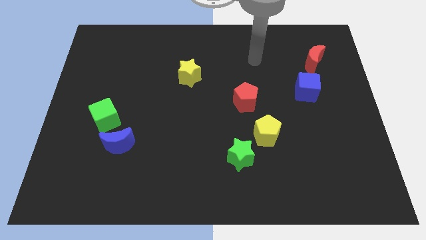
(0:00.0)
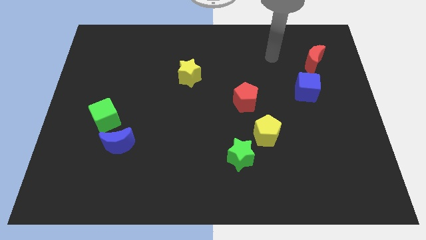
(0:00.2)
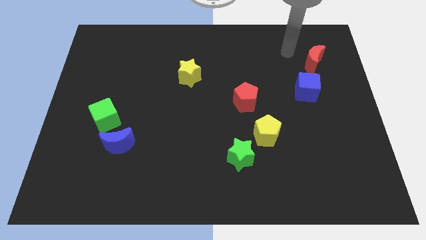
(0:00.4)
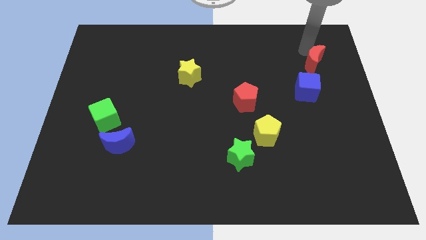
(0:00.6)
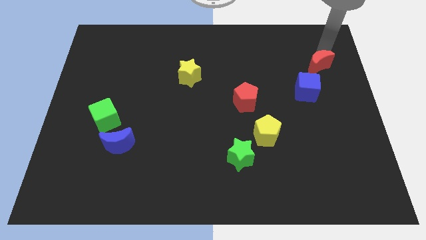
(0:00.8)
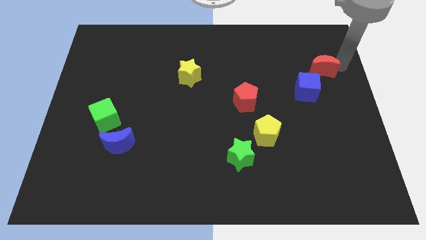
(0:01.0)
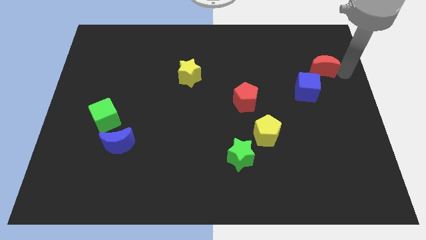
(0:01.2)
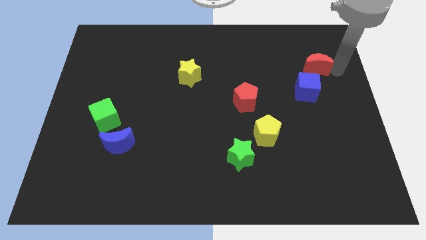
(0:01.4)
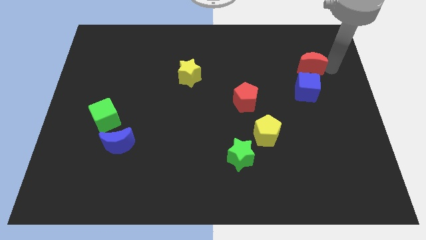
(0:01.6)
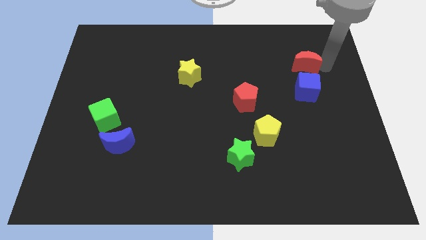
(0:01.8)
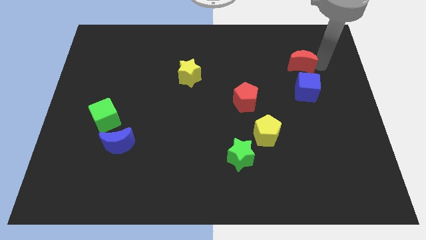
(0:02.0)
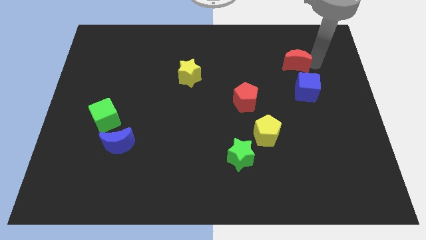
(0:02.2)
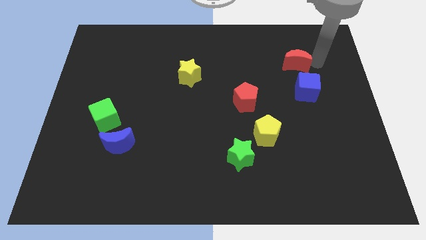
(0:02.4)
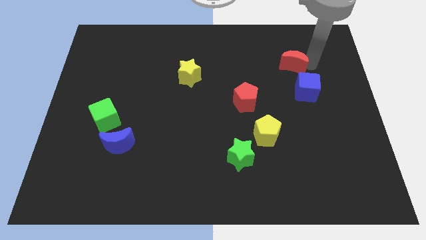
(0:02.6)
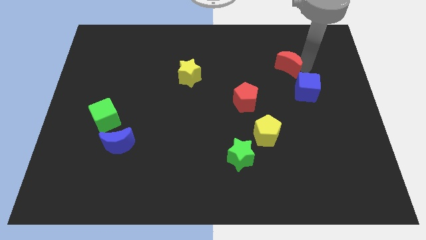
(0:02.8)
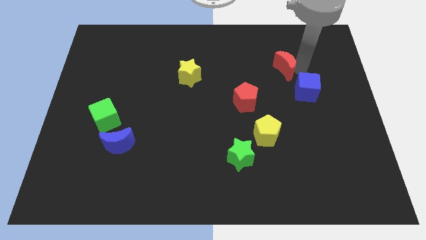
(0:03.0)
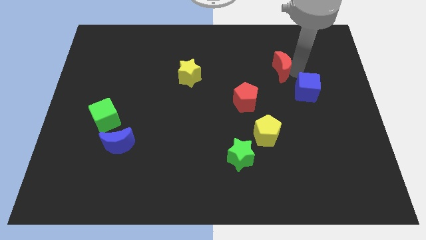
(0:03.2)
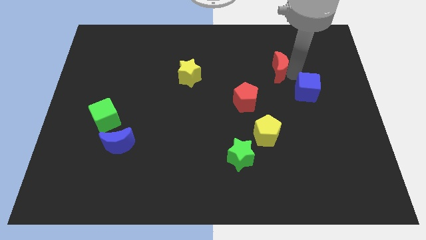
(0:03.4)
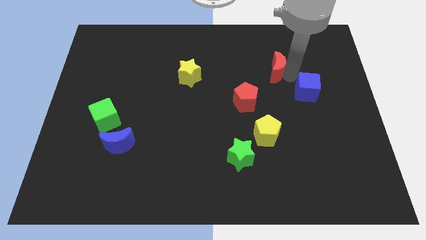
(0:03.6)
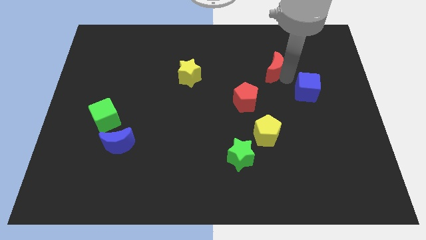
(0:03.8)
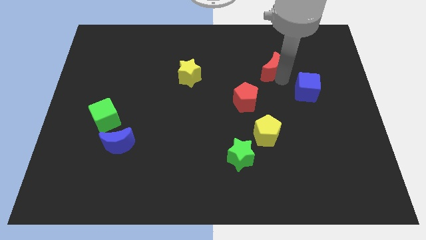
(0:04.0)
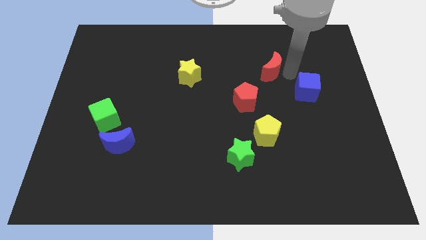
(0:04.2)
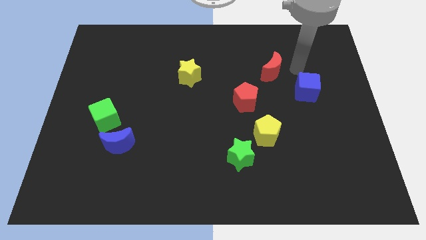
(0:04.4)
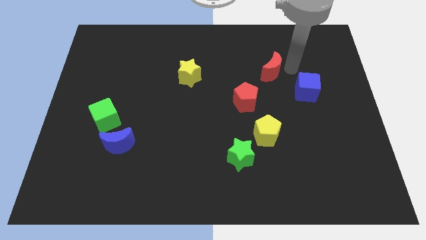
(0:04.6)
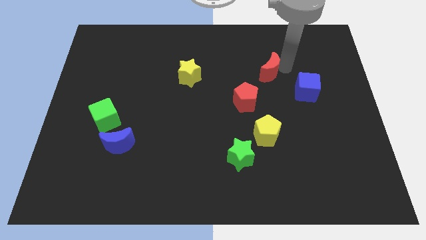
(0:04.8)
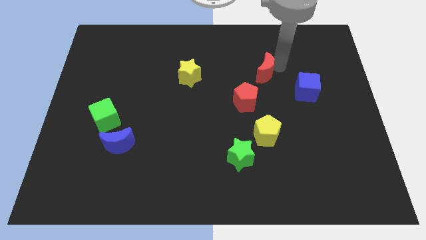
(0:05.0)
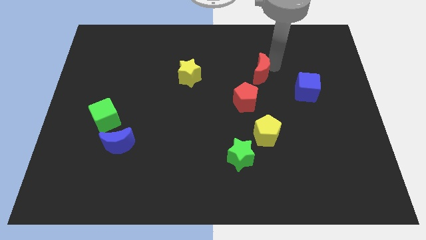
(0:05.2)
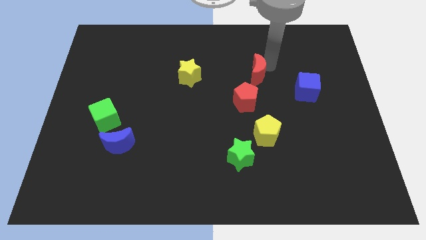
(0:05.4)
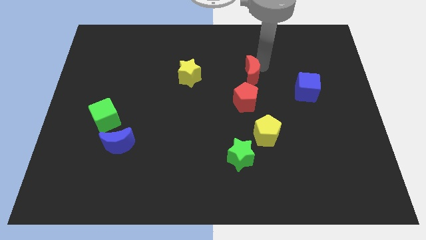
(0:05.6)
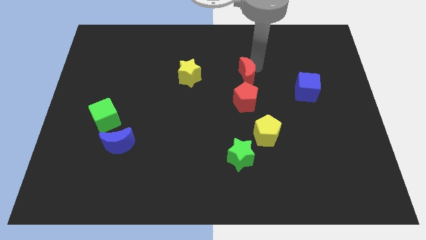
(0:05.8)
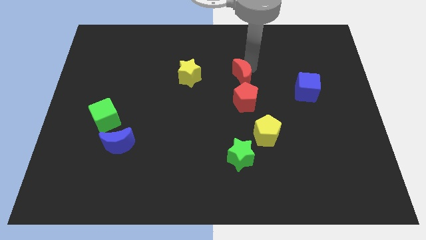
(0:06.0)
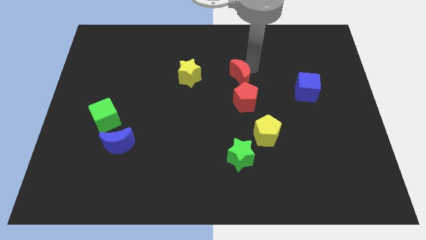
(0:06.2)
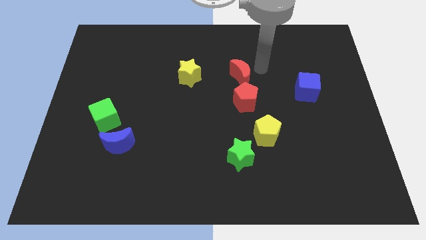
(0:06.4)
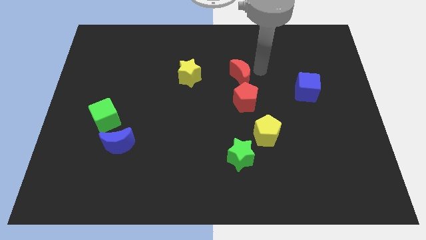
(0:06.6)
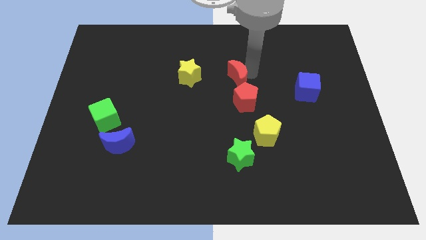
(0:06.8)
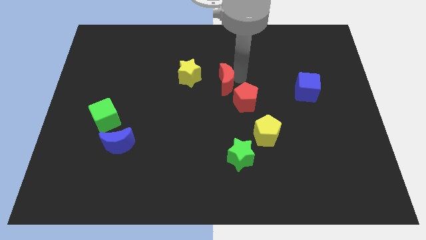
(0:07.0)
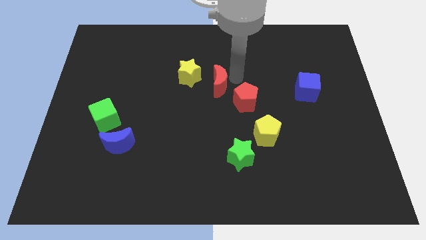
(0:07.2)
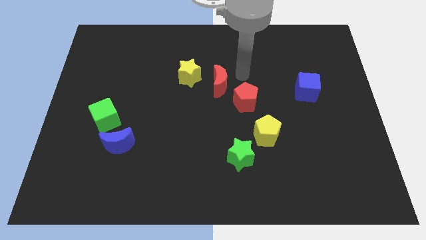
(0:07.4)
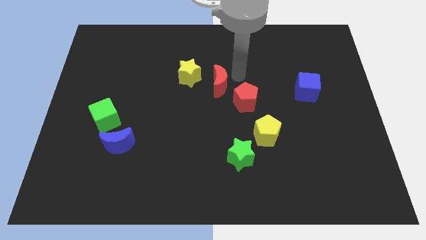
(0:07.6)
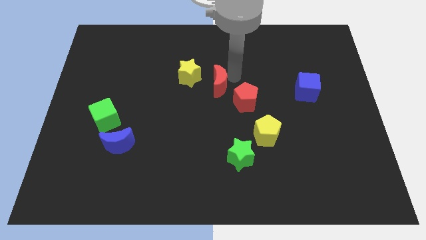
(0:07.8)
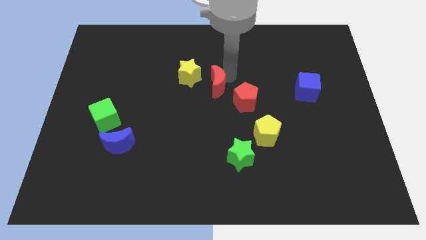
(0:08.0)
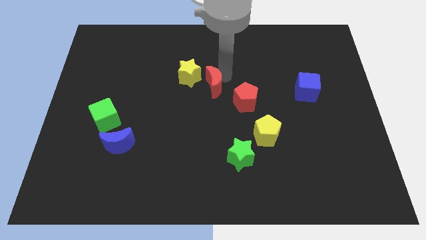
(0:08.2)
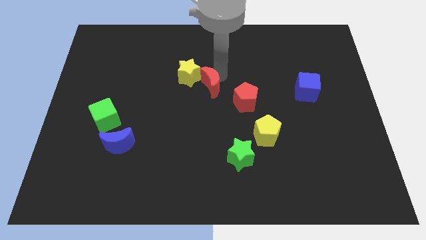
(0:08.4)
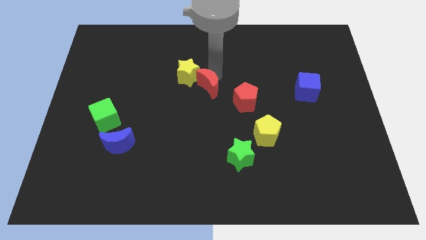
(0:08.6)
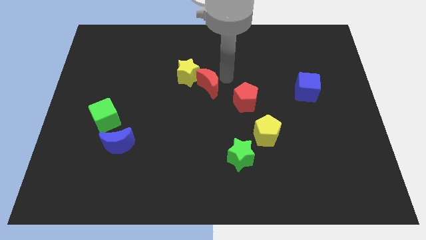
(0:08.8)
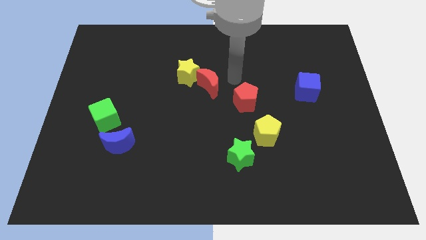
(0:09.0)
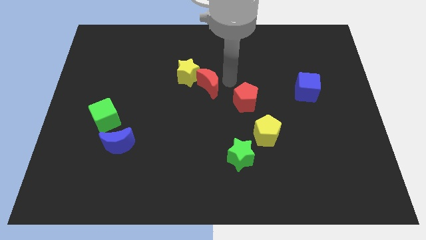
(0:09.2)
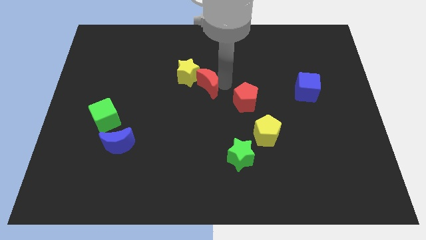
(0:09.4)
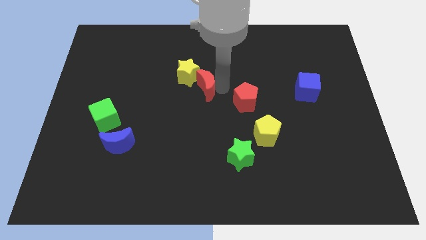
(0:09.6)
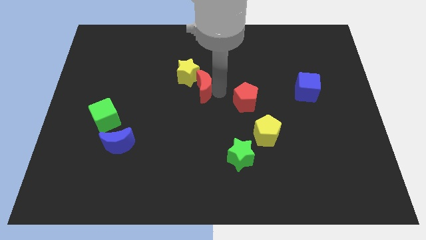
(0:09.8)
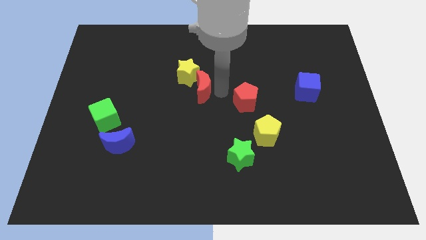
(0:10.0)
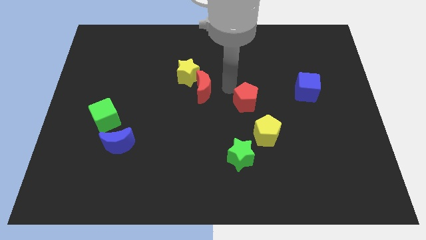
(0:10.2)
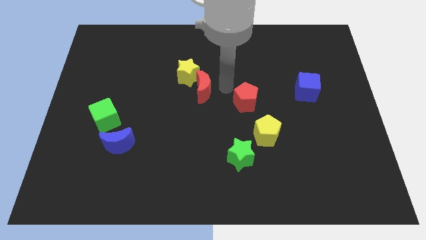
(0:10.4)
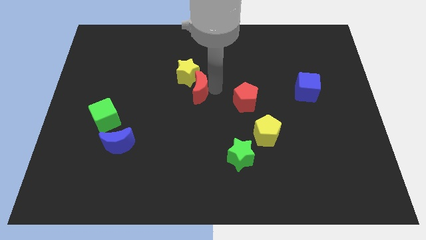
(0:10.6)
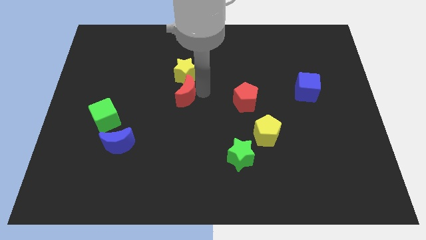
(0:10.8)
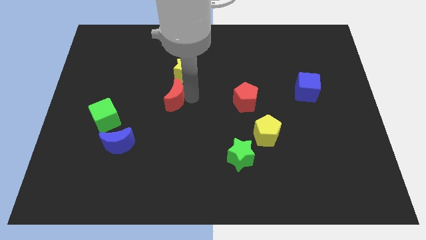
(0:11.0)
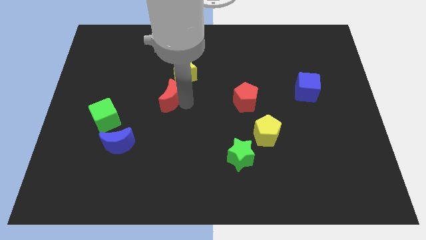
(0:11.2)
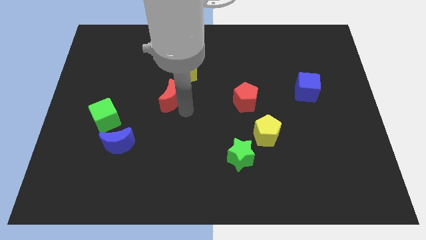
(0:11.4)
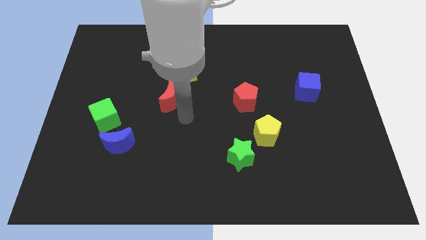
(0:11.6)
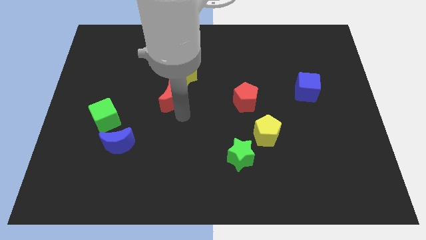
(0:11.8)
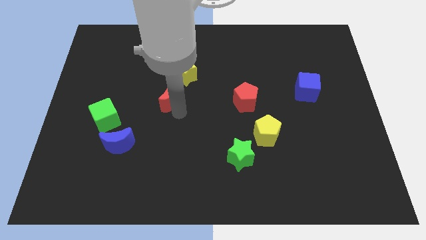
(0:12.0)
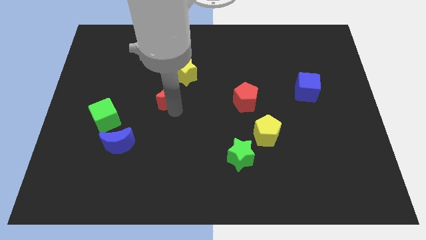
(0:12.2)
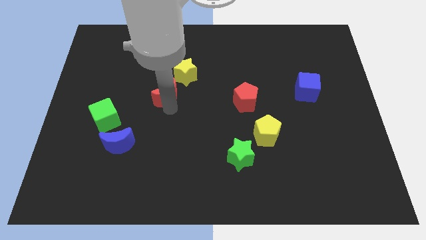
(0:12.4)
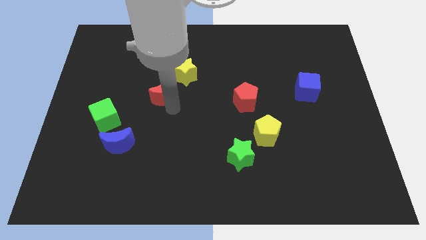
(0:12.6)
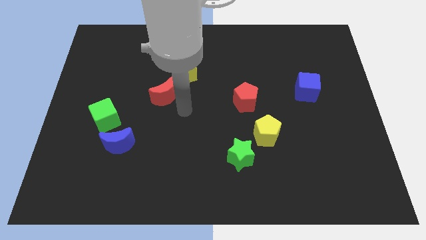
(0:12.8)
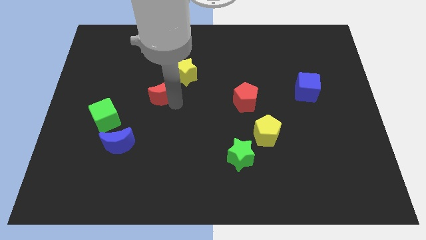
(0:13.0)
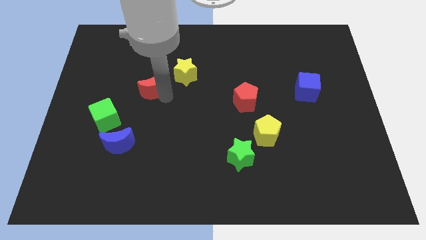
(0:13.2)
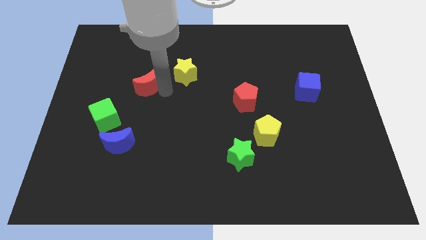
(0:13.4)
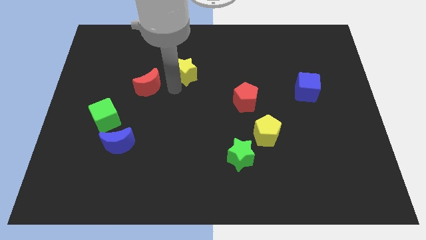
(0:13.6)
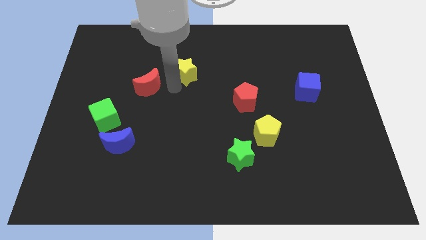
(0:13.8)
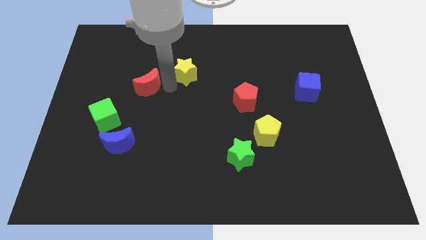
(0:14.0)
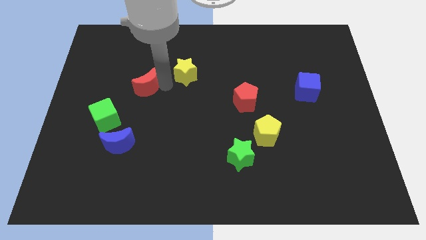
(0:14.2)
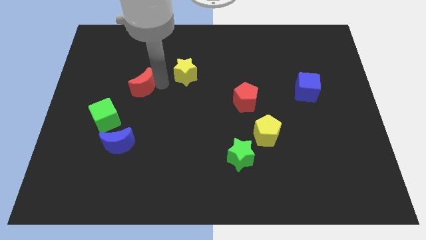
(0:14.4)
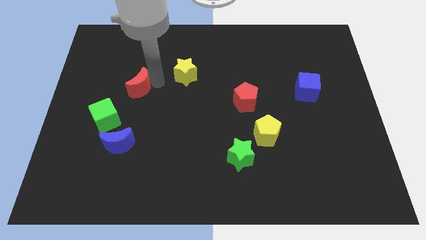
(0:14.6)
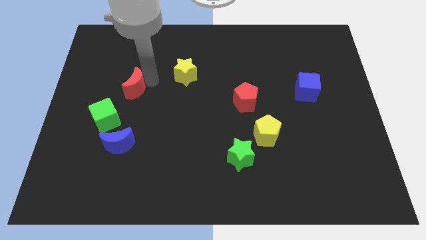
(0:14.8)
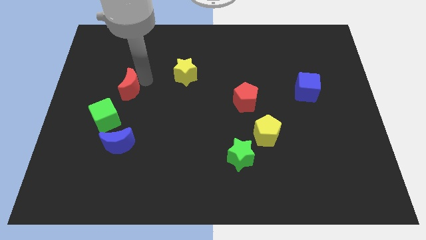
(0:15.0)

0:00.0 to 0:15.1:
push the red moon to the top of the green cube
